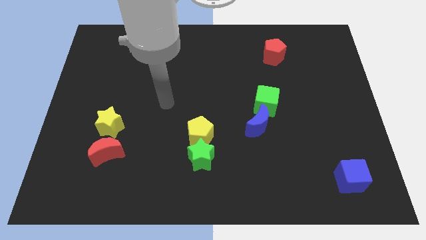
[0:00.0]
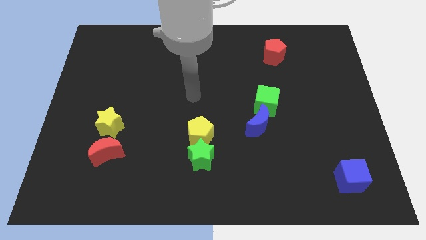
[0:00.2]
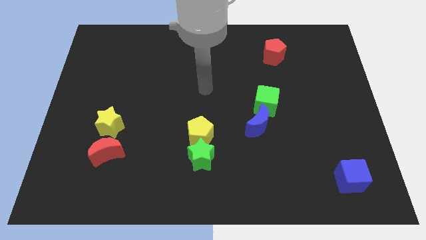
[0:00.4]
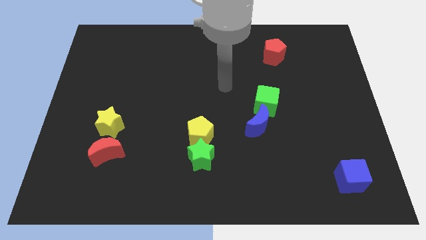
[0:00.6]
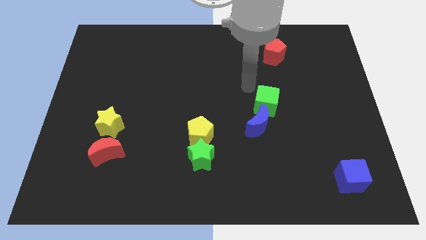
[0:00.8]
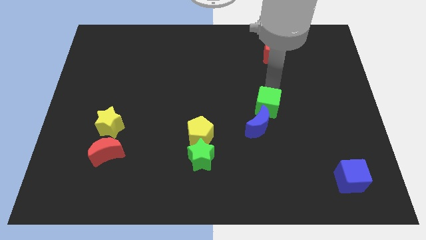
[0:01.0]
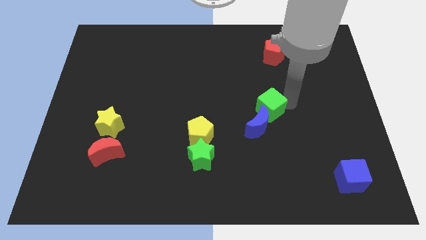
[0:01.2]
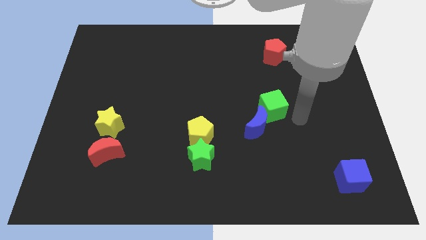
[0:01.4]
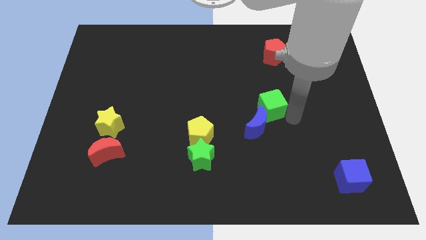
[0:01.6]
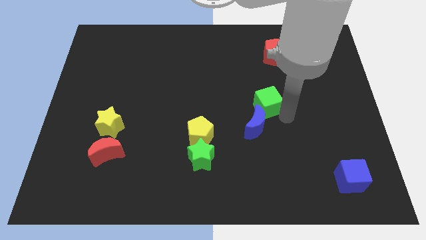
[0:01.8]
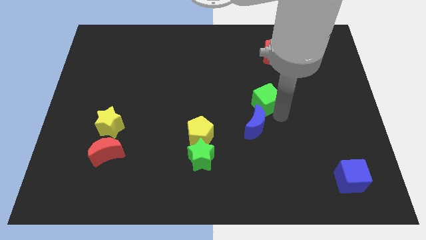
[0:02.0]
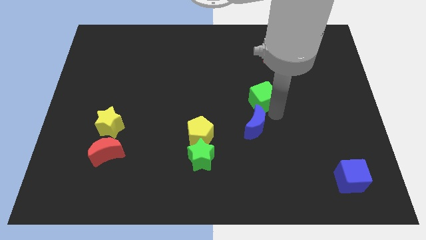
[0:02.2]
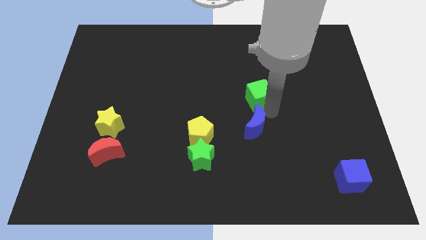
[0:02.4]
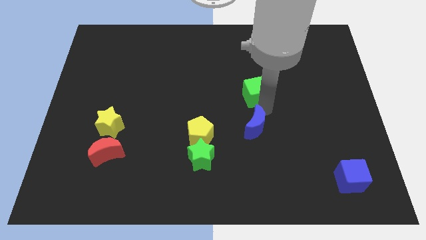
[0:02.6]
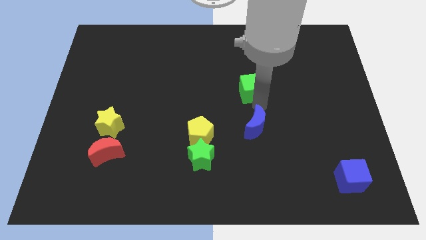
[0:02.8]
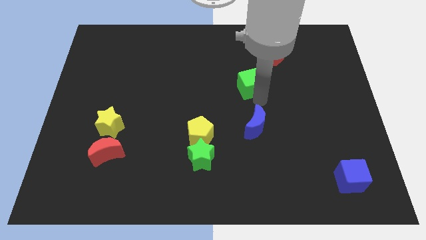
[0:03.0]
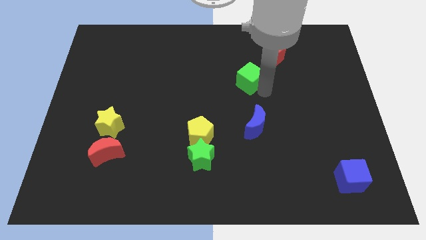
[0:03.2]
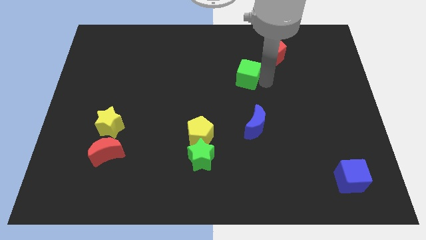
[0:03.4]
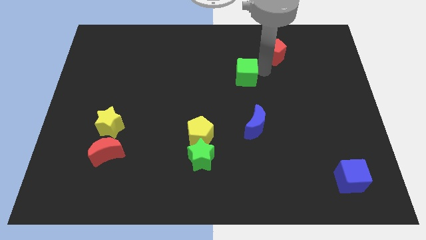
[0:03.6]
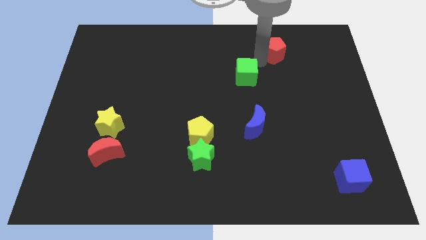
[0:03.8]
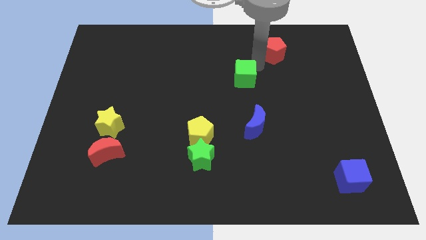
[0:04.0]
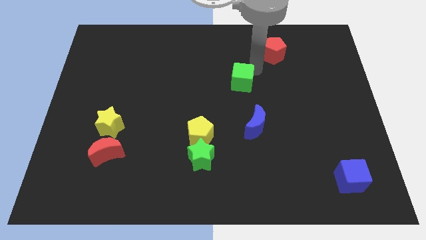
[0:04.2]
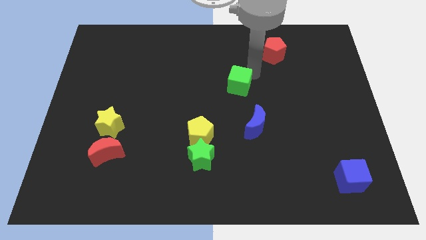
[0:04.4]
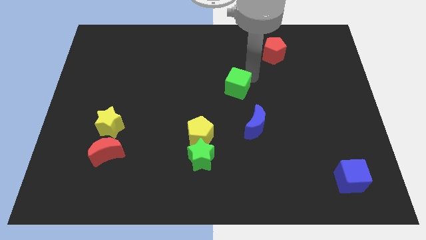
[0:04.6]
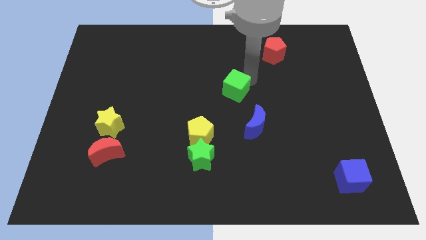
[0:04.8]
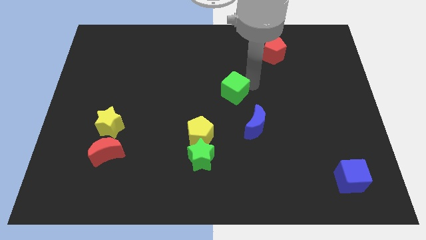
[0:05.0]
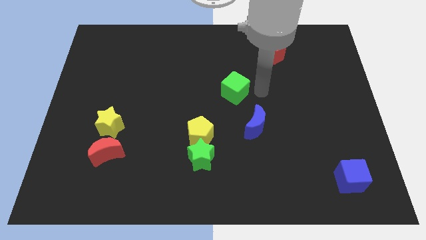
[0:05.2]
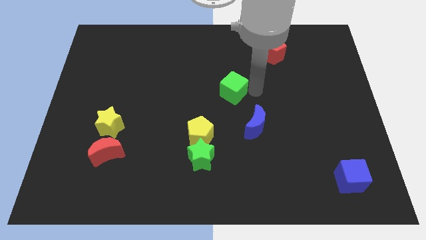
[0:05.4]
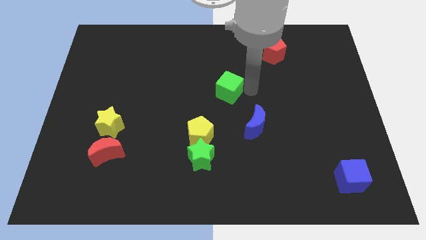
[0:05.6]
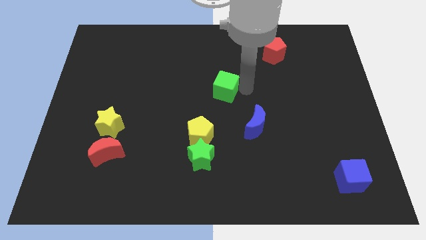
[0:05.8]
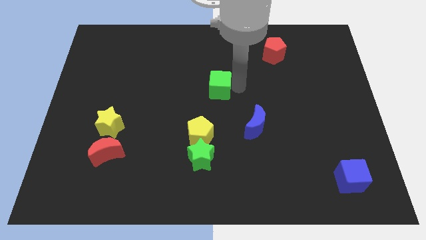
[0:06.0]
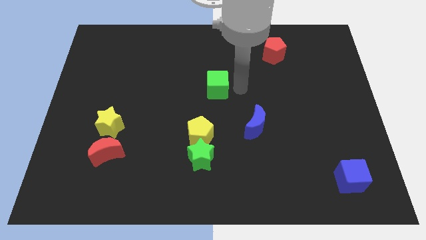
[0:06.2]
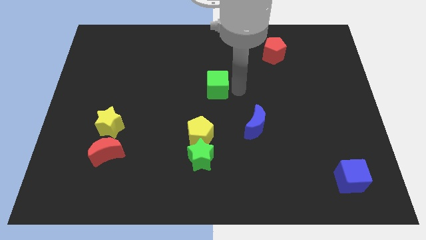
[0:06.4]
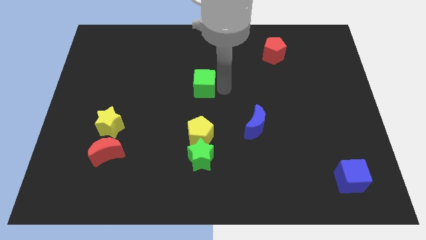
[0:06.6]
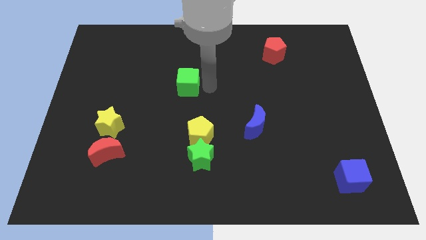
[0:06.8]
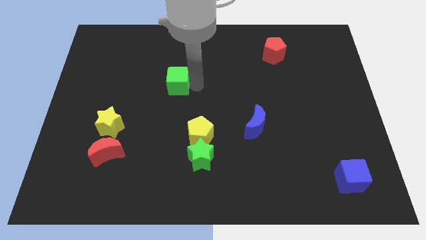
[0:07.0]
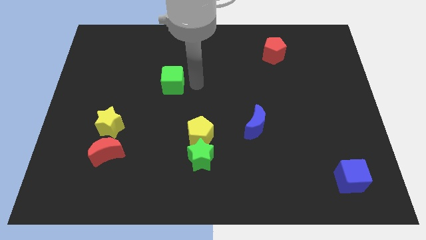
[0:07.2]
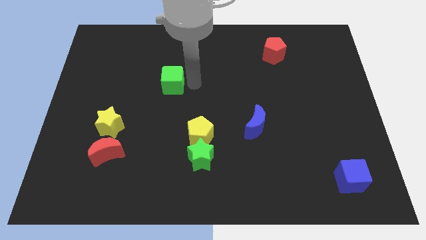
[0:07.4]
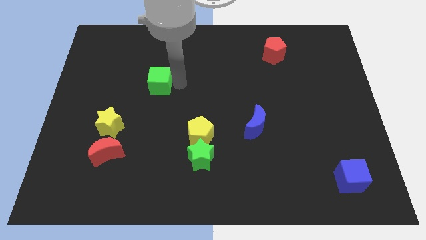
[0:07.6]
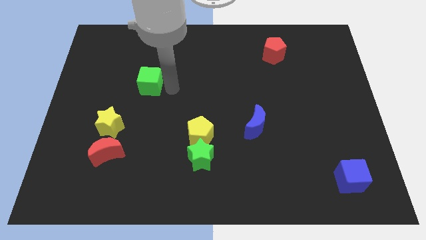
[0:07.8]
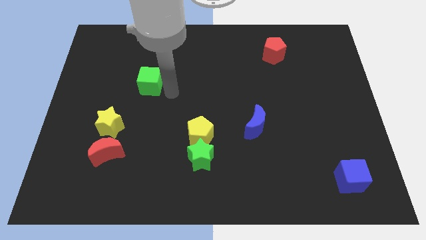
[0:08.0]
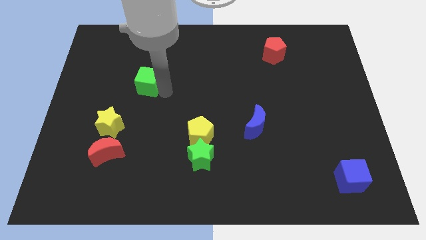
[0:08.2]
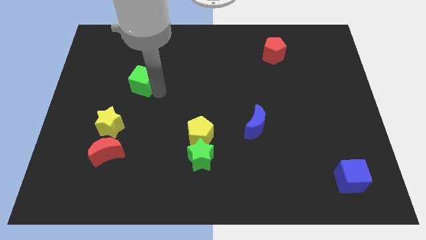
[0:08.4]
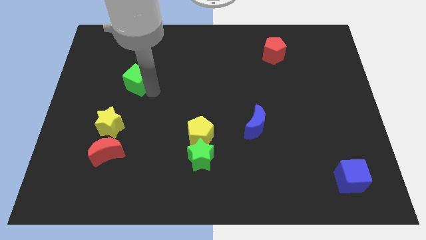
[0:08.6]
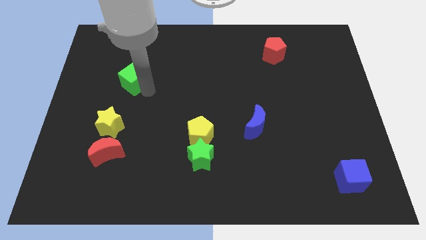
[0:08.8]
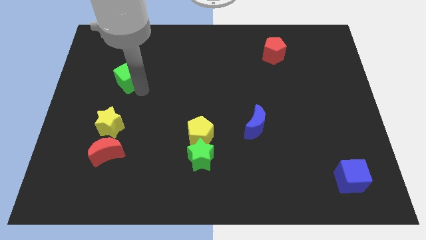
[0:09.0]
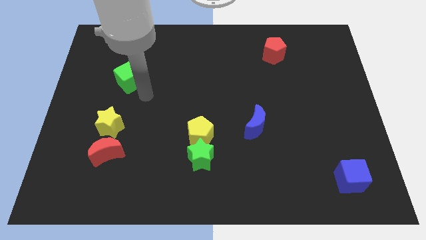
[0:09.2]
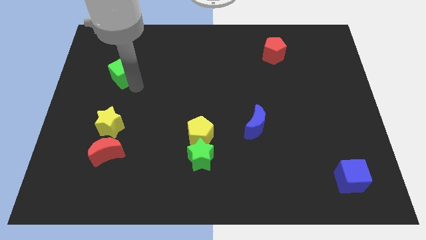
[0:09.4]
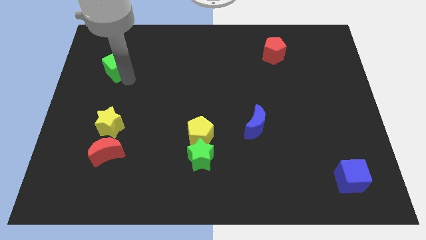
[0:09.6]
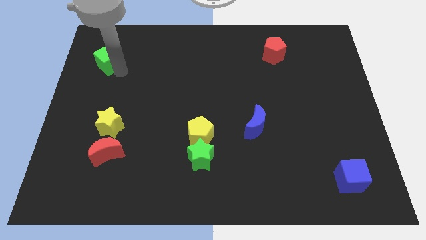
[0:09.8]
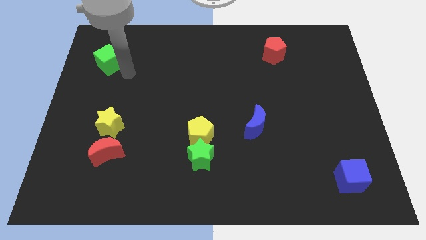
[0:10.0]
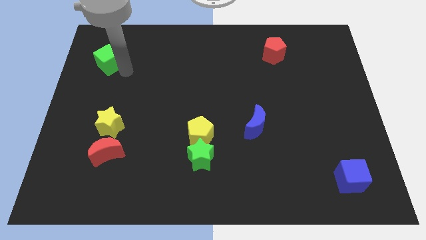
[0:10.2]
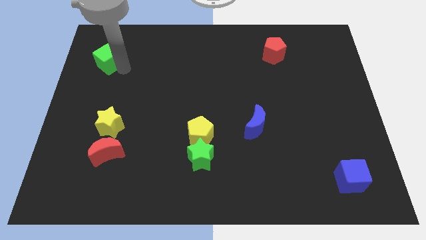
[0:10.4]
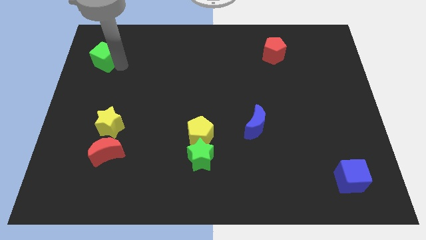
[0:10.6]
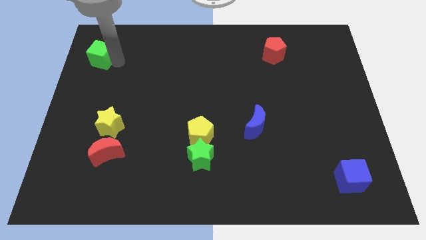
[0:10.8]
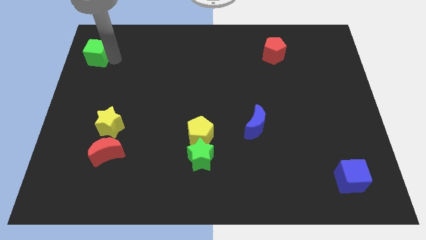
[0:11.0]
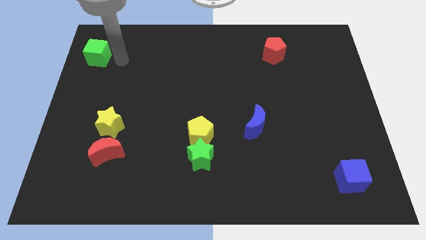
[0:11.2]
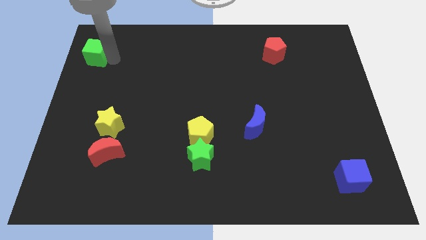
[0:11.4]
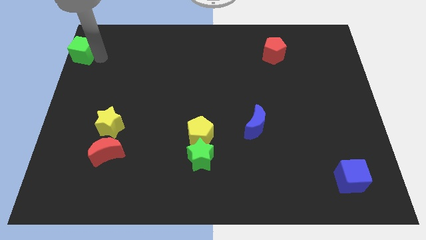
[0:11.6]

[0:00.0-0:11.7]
push the green cube to the upper left corner
